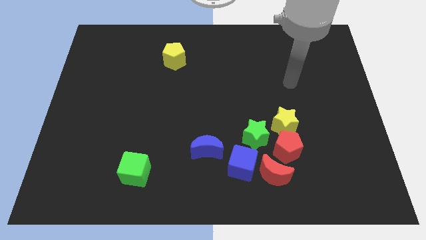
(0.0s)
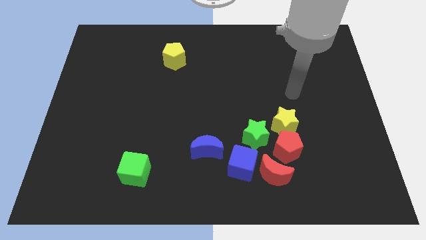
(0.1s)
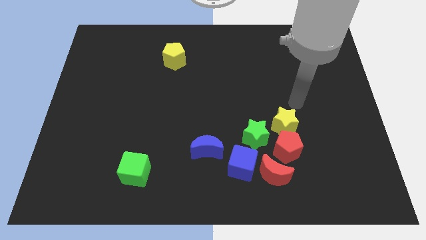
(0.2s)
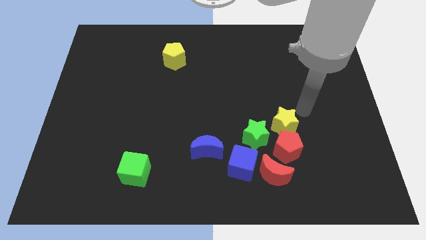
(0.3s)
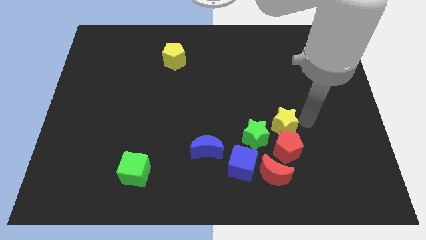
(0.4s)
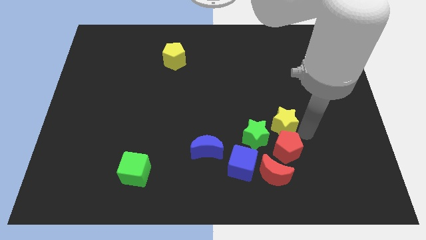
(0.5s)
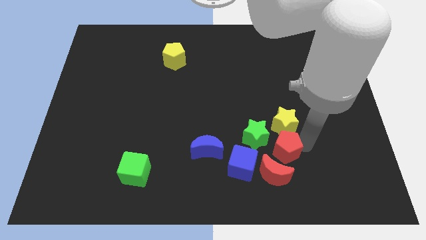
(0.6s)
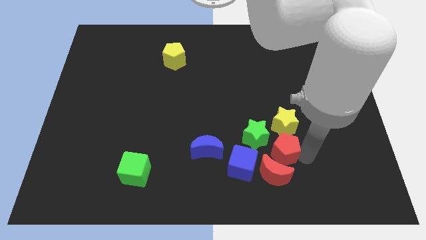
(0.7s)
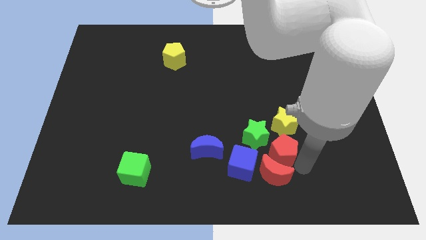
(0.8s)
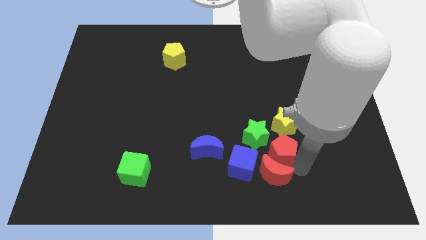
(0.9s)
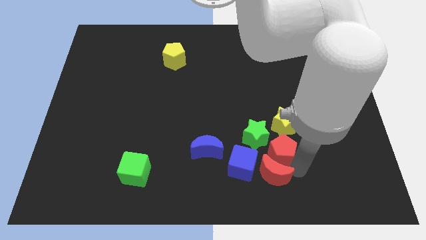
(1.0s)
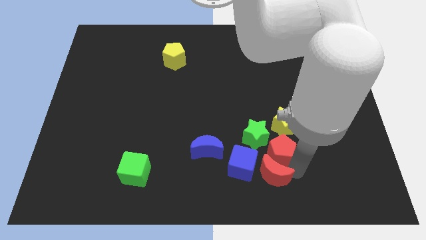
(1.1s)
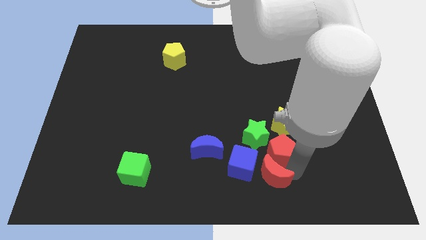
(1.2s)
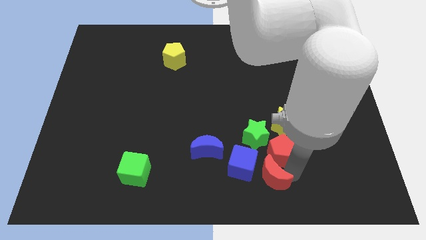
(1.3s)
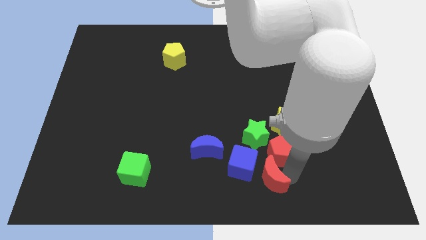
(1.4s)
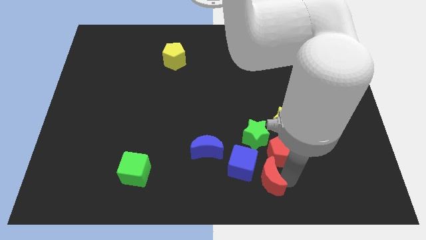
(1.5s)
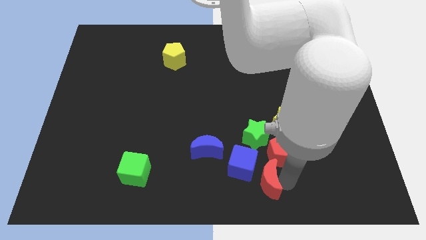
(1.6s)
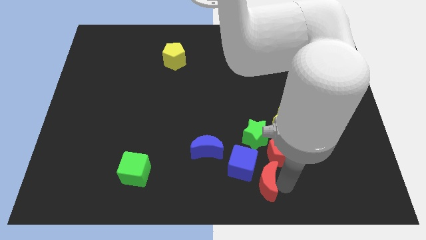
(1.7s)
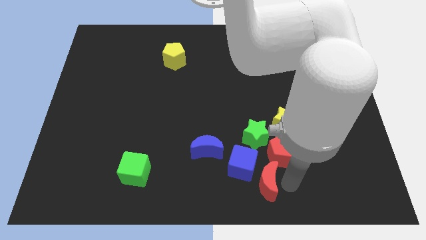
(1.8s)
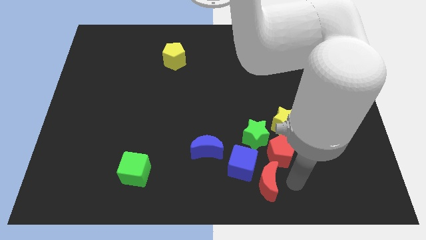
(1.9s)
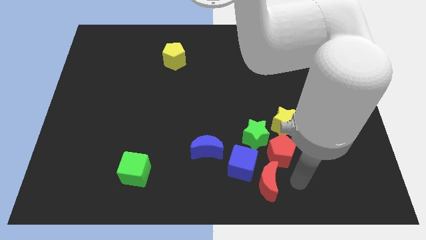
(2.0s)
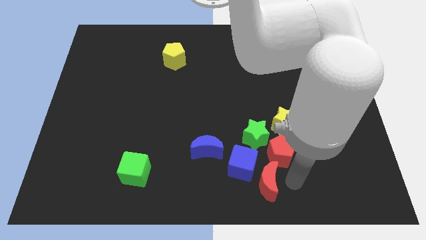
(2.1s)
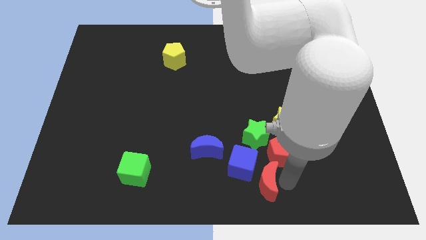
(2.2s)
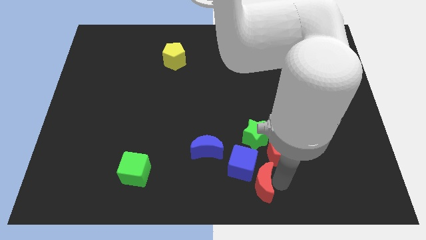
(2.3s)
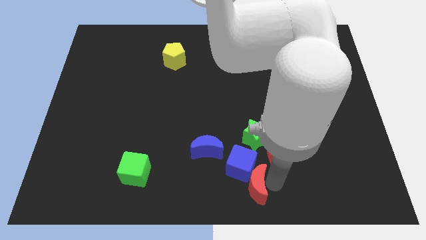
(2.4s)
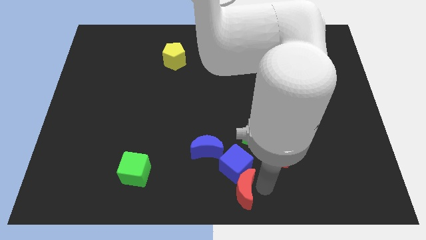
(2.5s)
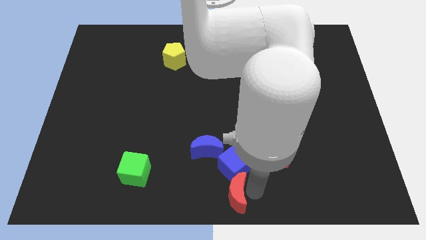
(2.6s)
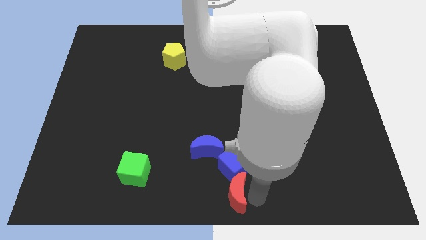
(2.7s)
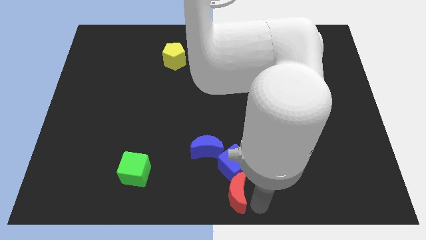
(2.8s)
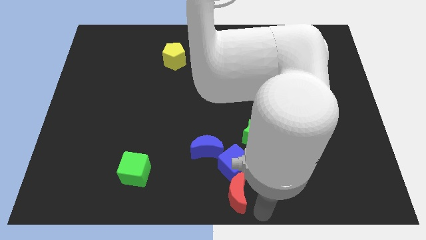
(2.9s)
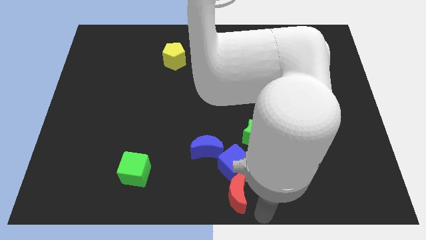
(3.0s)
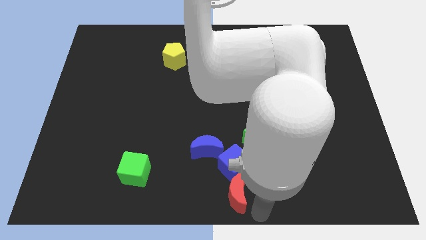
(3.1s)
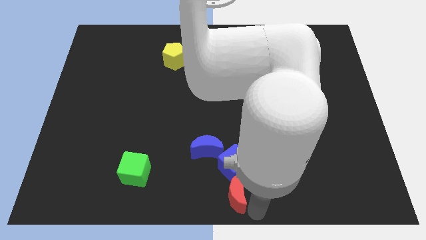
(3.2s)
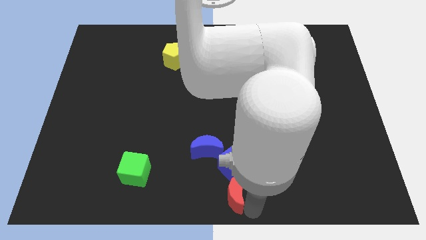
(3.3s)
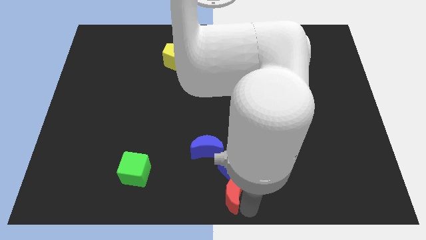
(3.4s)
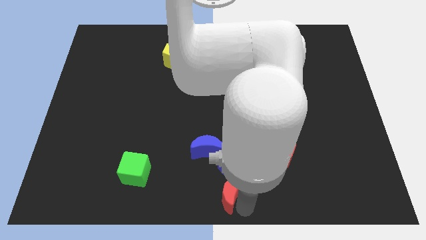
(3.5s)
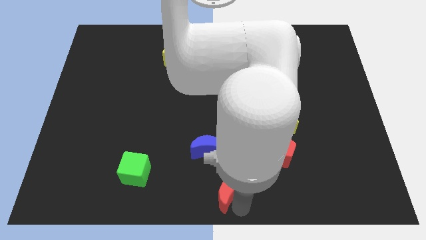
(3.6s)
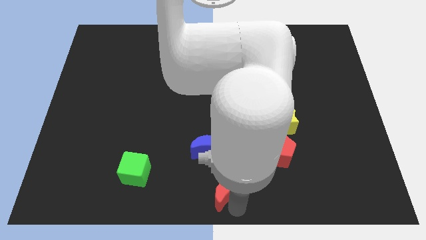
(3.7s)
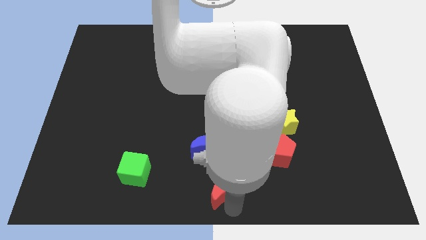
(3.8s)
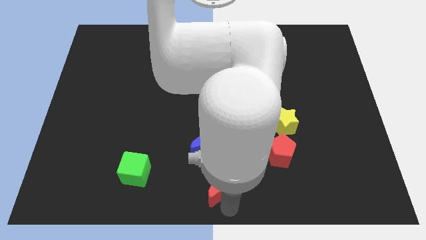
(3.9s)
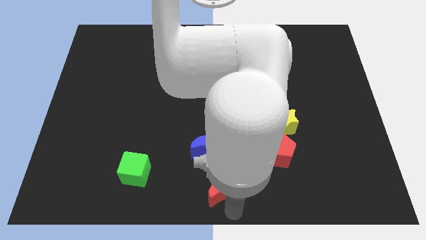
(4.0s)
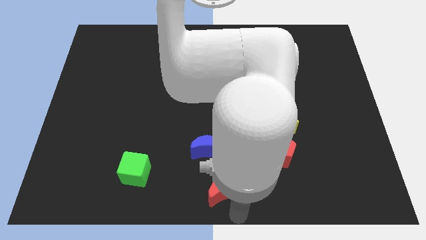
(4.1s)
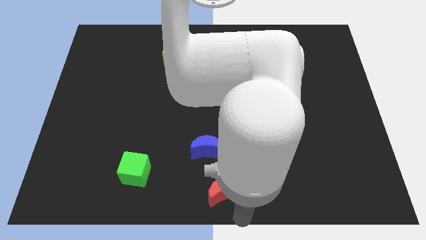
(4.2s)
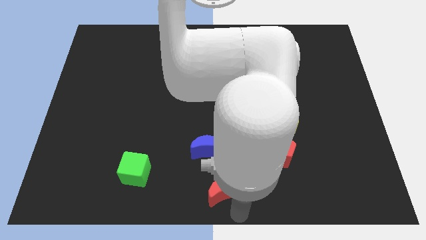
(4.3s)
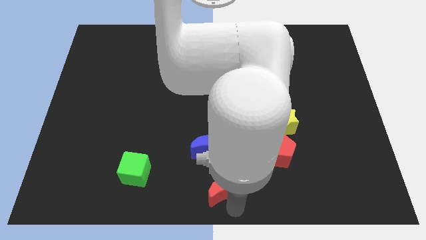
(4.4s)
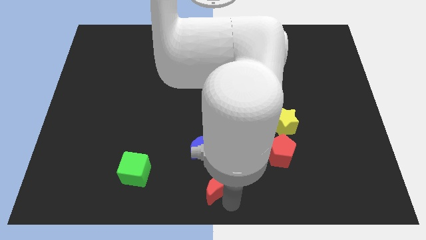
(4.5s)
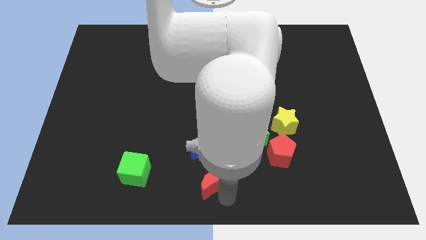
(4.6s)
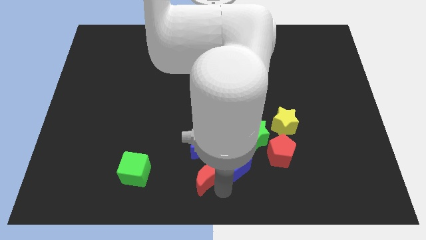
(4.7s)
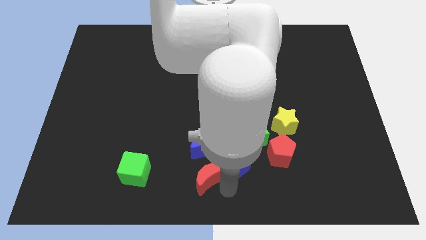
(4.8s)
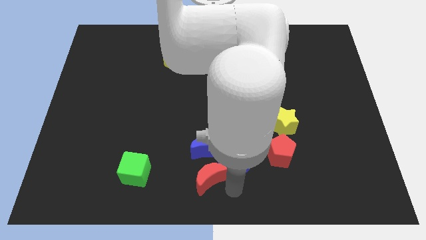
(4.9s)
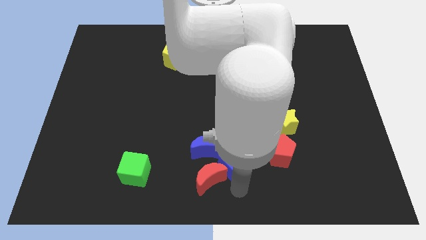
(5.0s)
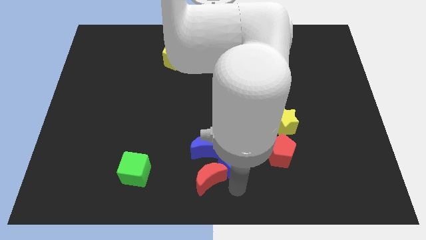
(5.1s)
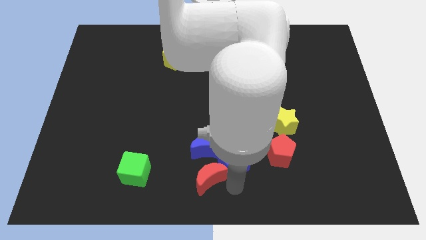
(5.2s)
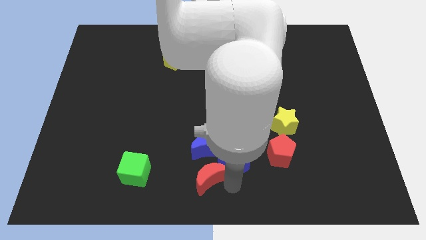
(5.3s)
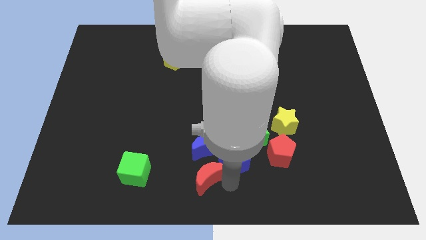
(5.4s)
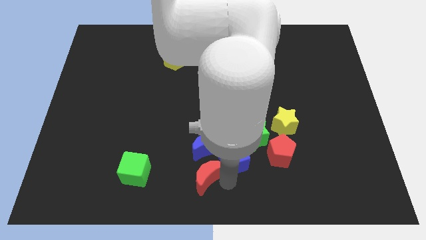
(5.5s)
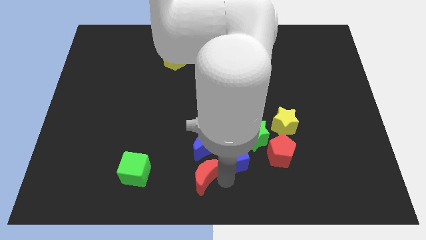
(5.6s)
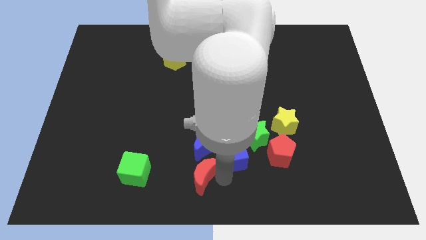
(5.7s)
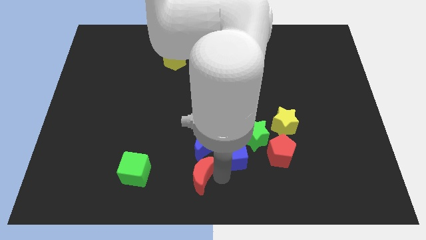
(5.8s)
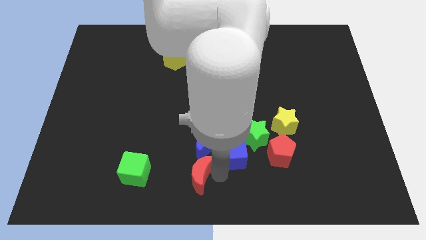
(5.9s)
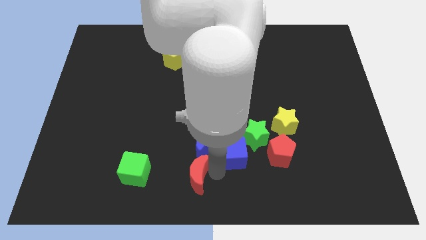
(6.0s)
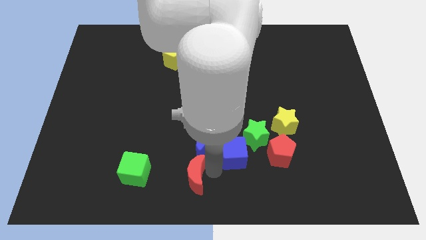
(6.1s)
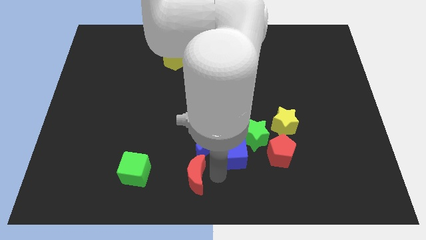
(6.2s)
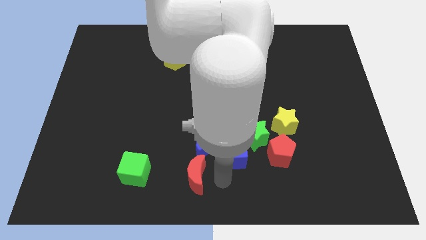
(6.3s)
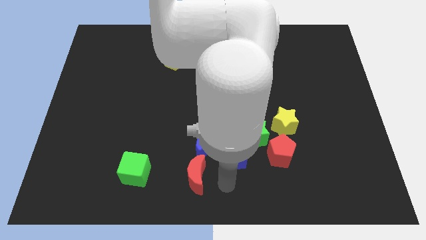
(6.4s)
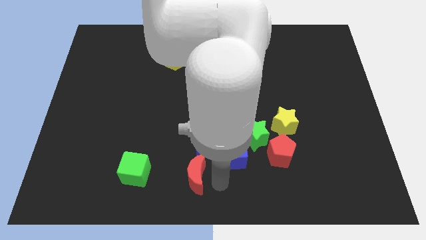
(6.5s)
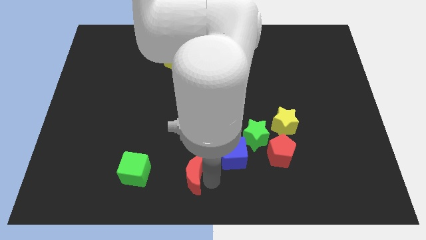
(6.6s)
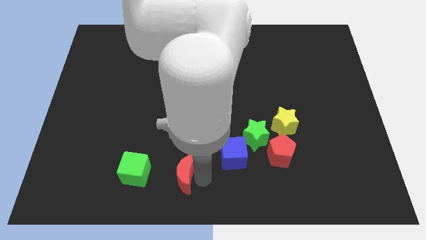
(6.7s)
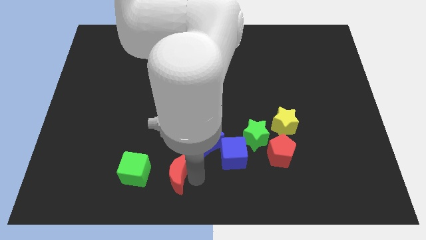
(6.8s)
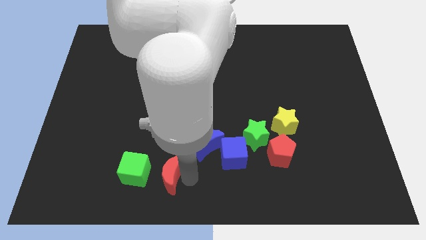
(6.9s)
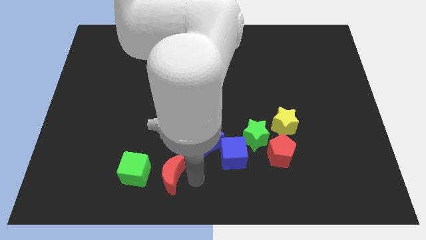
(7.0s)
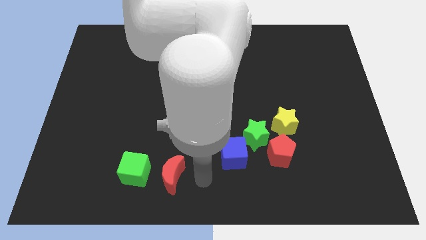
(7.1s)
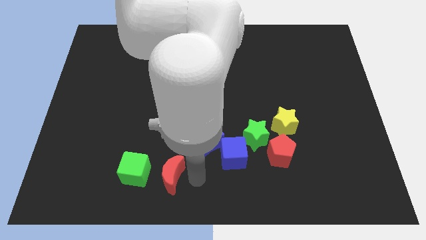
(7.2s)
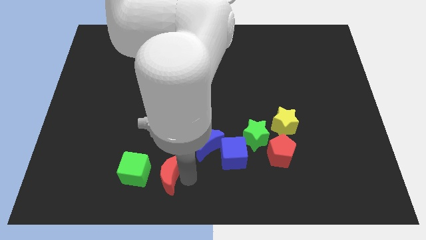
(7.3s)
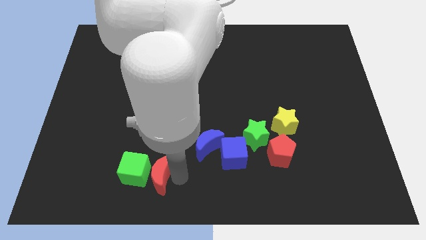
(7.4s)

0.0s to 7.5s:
put the red moon close to the green cube
